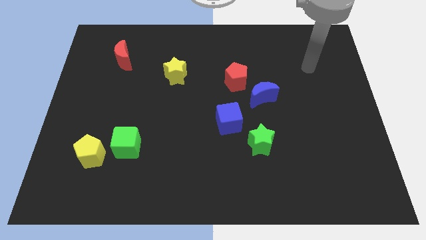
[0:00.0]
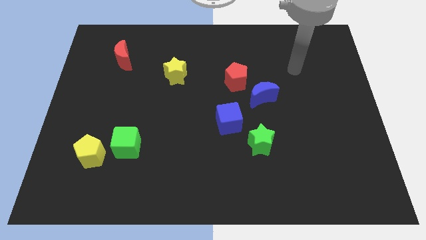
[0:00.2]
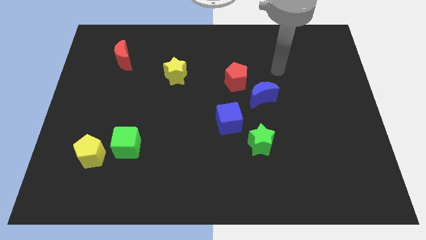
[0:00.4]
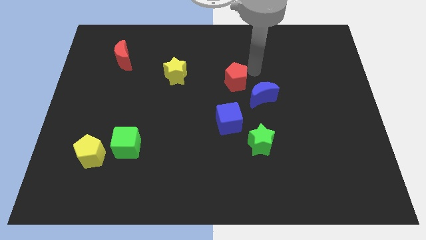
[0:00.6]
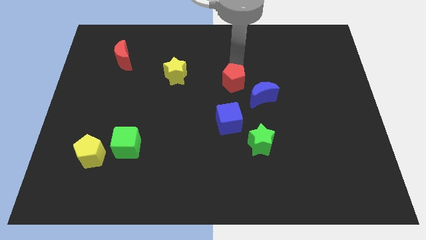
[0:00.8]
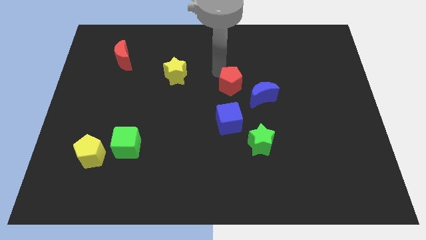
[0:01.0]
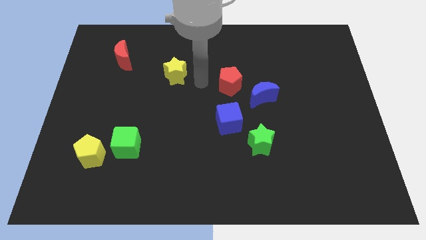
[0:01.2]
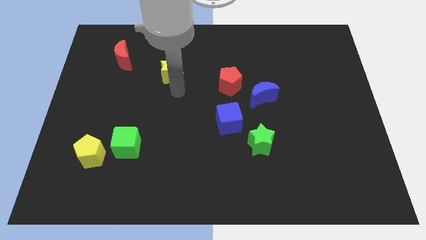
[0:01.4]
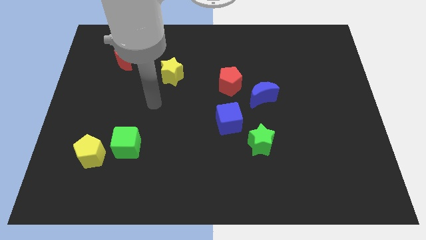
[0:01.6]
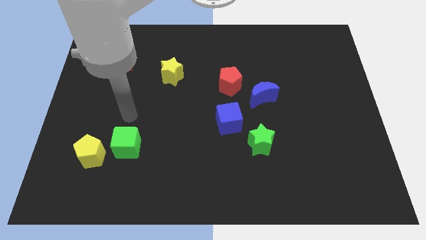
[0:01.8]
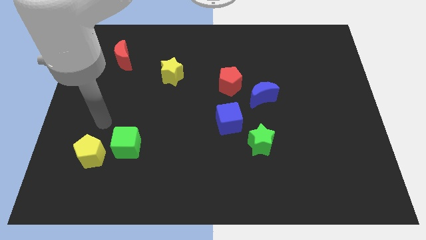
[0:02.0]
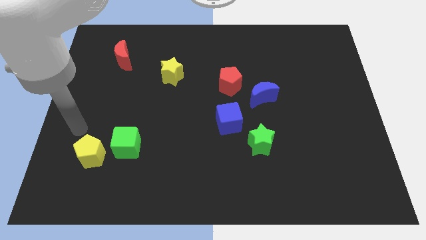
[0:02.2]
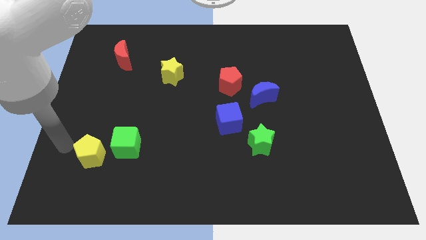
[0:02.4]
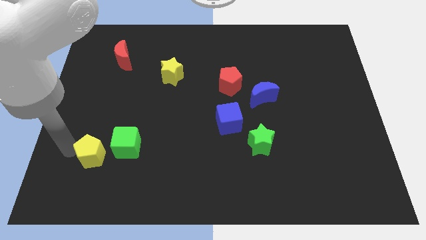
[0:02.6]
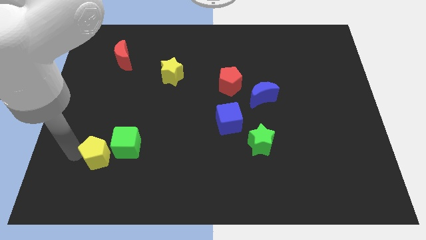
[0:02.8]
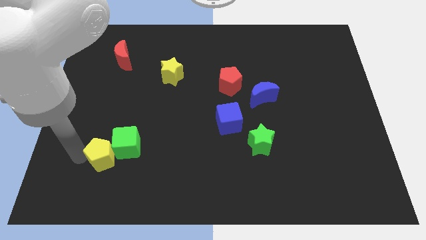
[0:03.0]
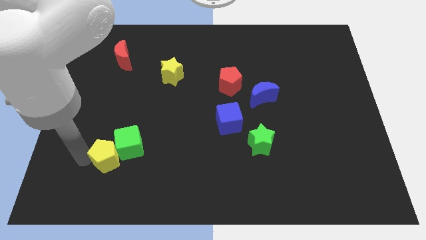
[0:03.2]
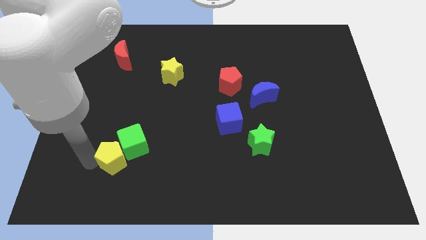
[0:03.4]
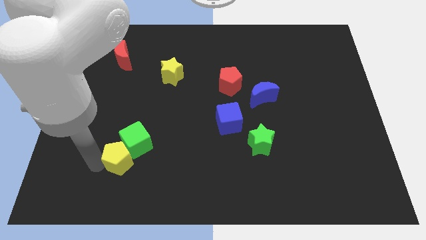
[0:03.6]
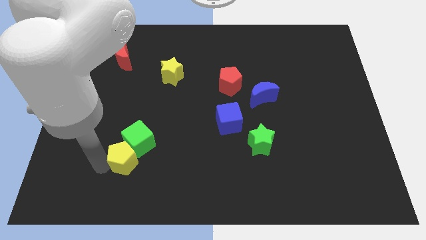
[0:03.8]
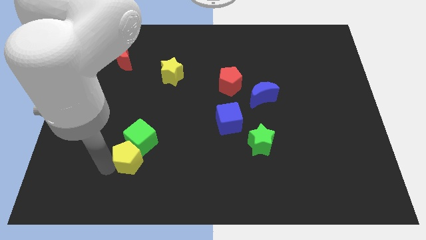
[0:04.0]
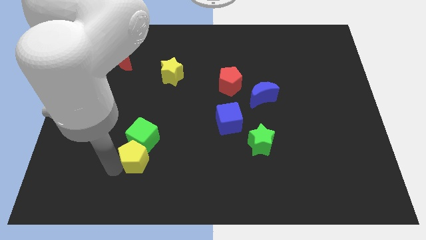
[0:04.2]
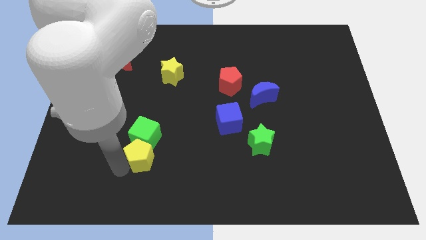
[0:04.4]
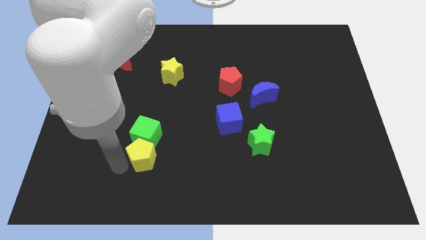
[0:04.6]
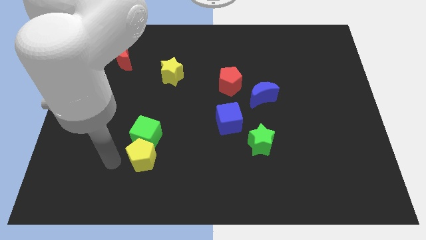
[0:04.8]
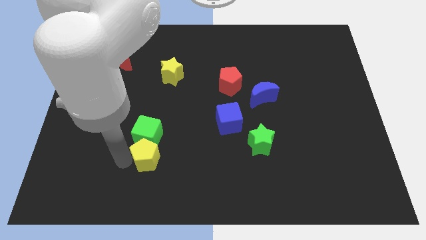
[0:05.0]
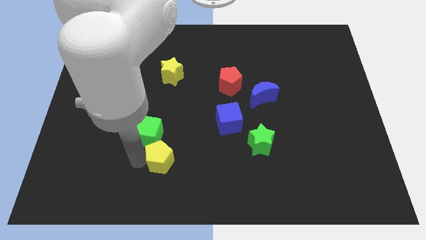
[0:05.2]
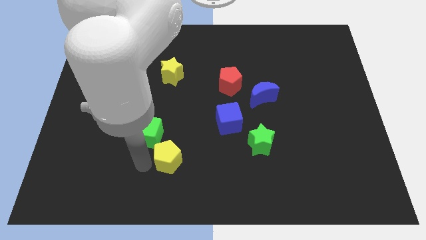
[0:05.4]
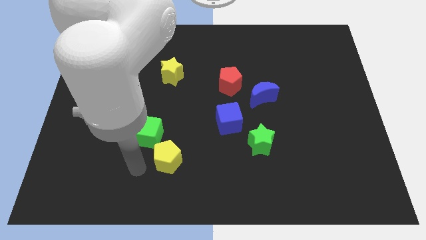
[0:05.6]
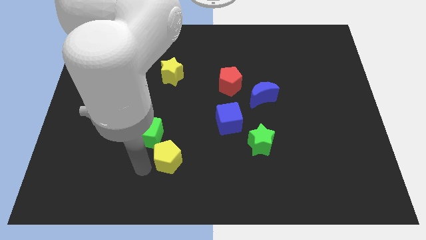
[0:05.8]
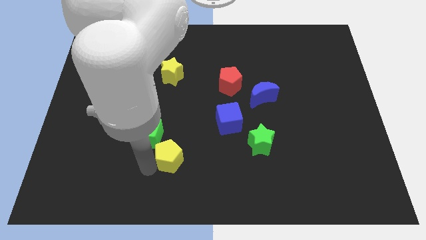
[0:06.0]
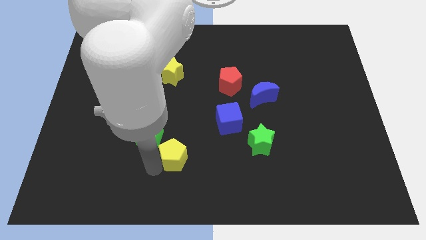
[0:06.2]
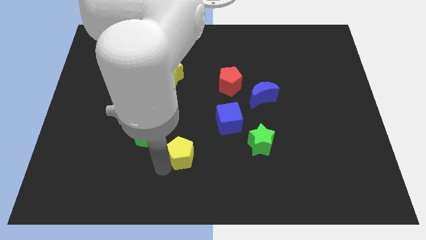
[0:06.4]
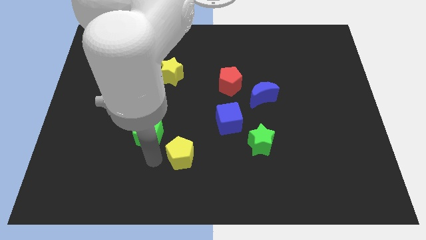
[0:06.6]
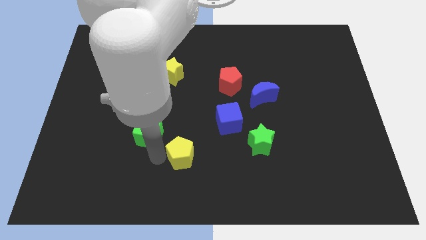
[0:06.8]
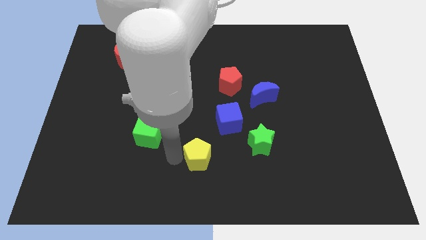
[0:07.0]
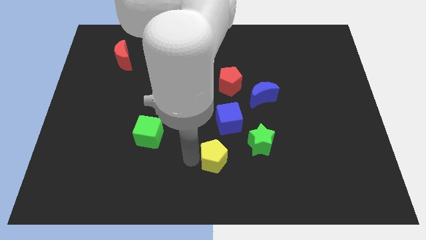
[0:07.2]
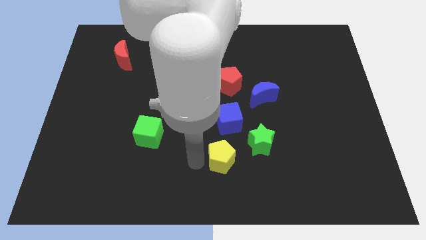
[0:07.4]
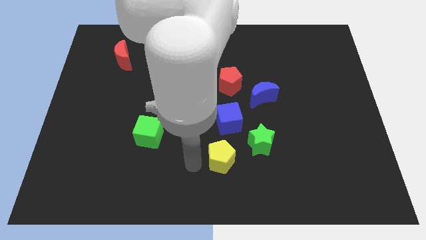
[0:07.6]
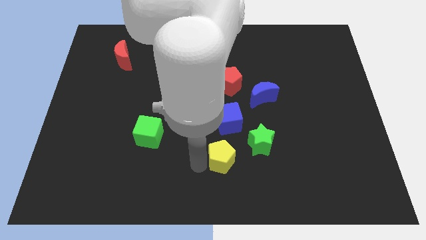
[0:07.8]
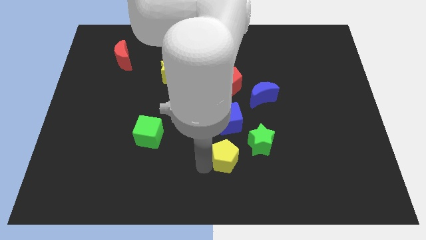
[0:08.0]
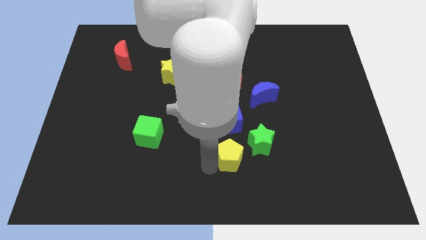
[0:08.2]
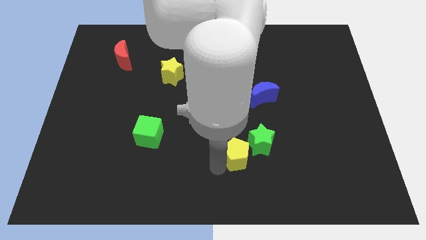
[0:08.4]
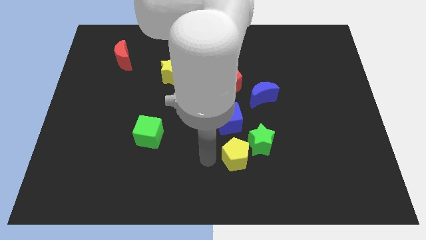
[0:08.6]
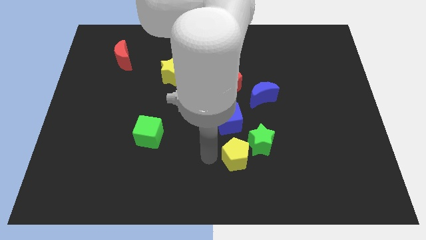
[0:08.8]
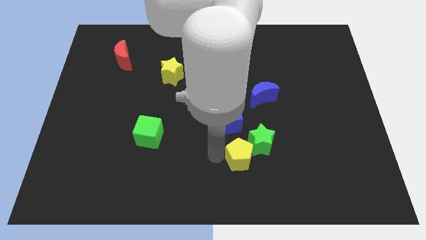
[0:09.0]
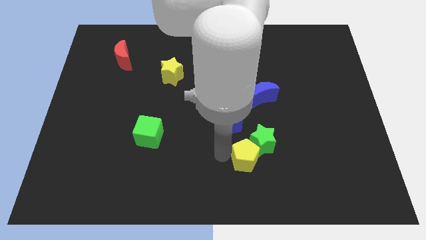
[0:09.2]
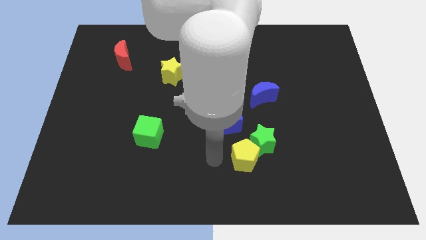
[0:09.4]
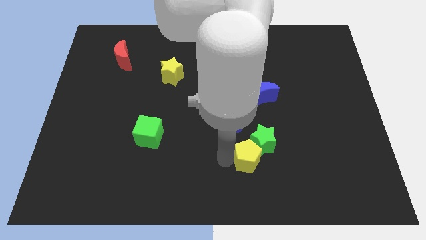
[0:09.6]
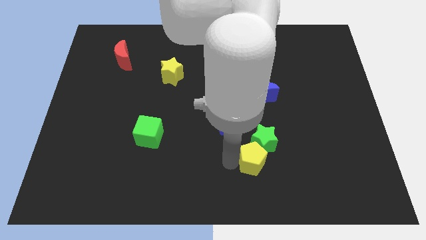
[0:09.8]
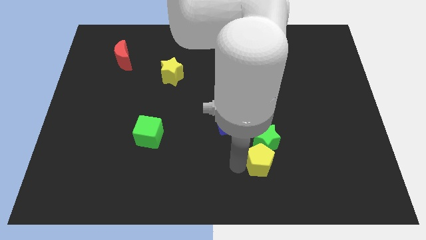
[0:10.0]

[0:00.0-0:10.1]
move the yellow pentagon to the bottom right side of the green star

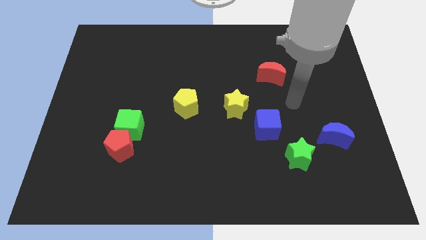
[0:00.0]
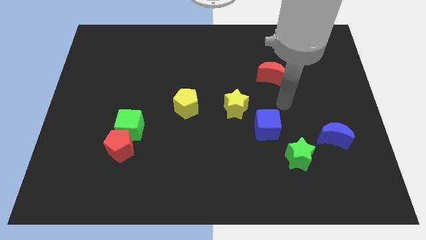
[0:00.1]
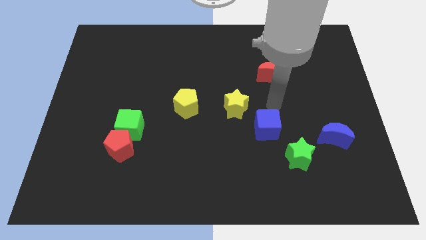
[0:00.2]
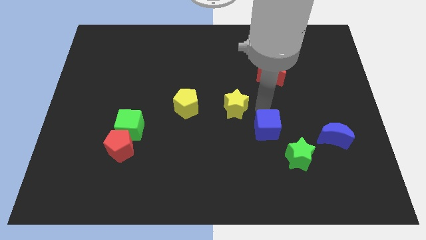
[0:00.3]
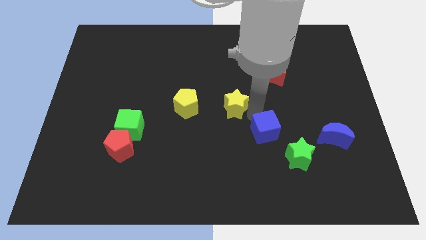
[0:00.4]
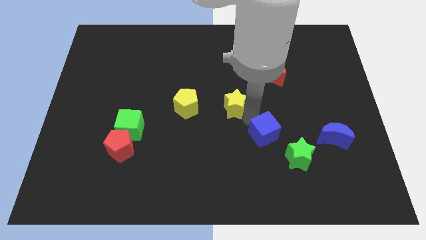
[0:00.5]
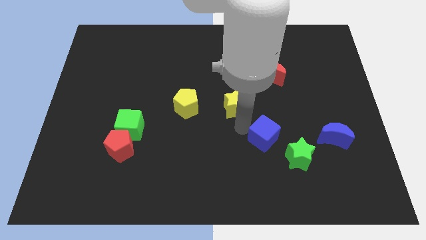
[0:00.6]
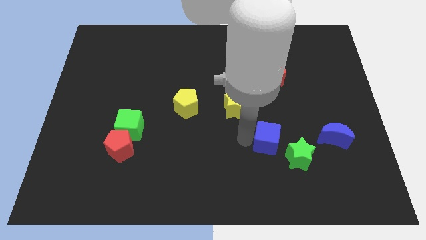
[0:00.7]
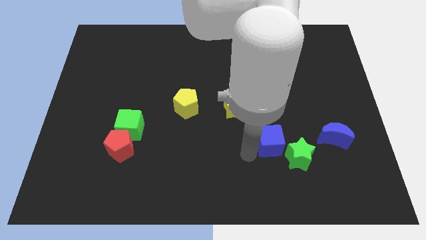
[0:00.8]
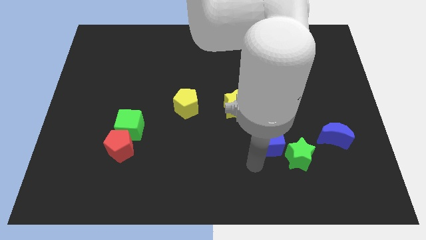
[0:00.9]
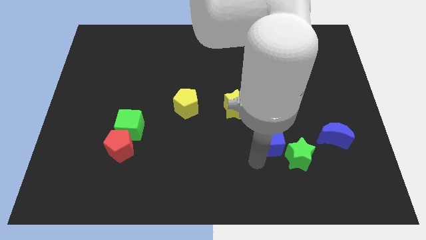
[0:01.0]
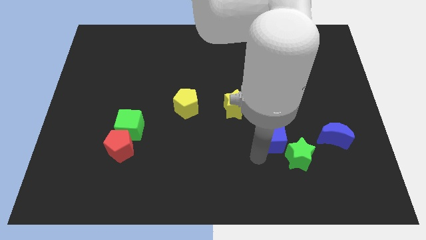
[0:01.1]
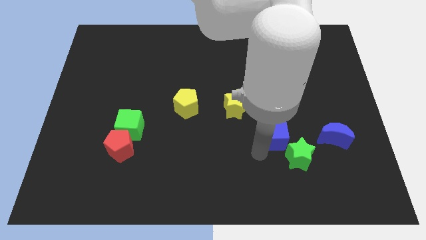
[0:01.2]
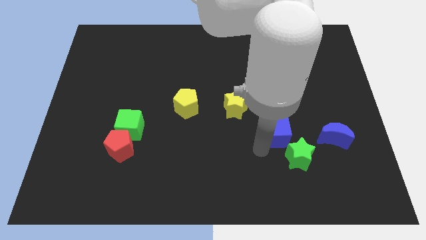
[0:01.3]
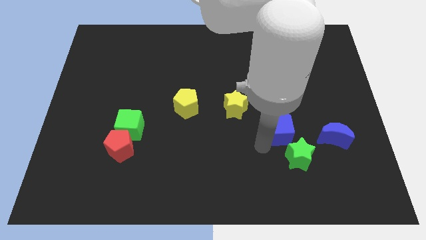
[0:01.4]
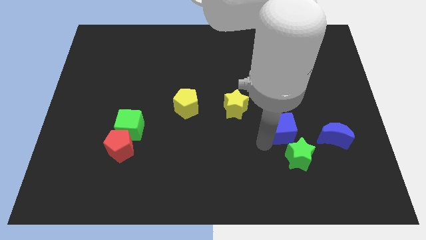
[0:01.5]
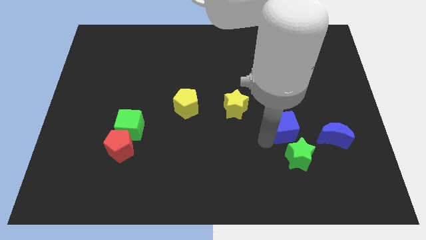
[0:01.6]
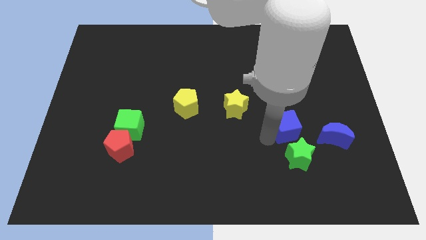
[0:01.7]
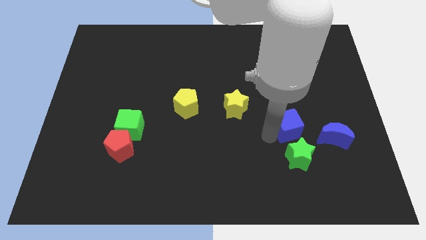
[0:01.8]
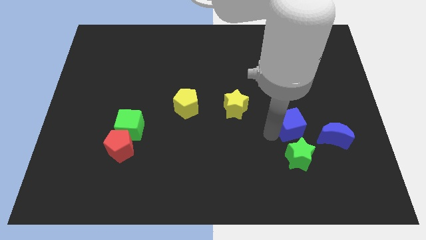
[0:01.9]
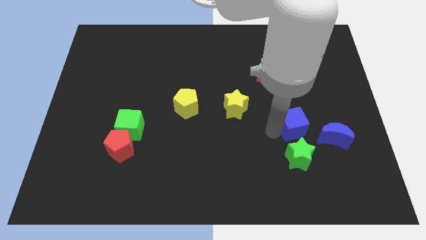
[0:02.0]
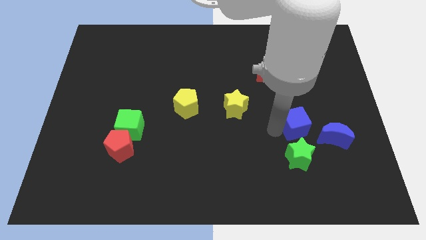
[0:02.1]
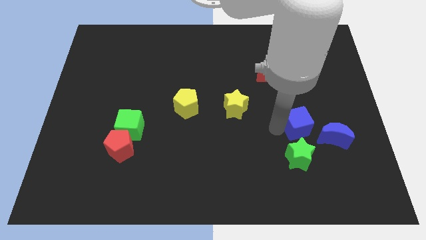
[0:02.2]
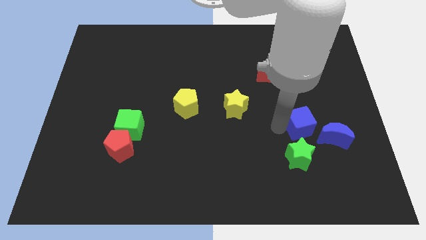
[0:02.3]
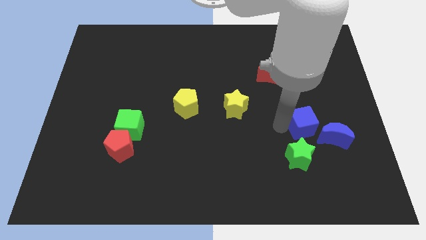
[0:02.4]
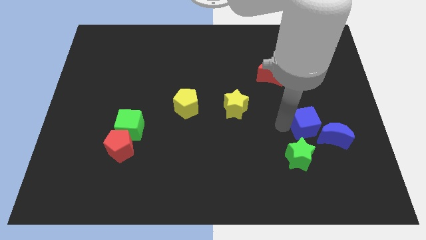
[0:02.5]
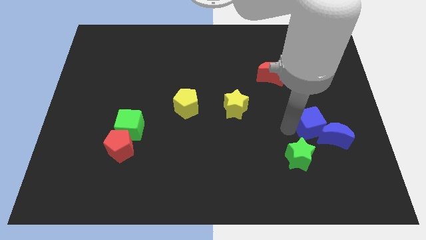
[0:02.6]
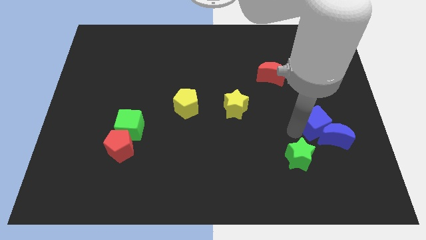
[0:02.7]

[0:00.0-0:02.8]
slide the blue cube to the top side of the blue moon
